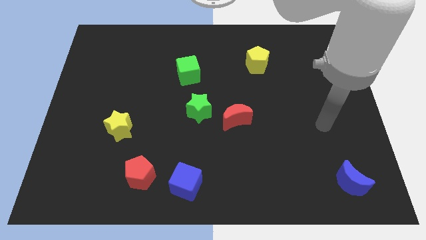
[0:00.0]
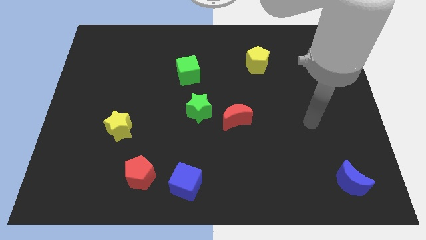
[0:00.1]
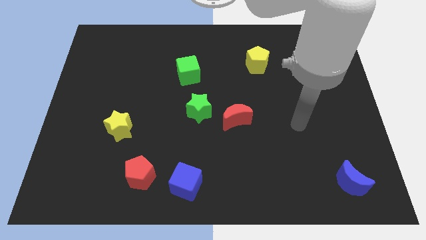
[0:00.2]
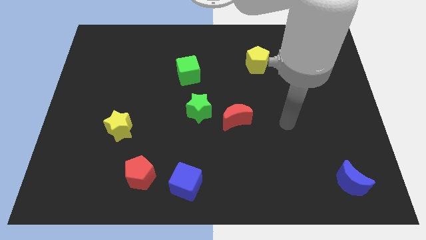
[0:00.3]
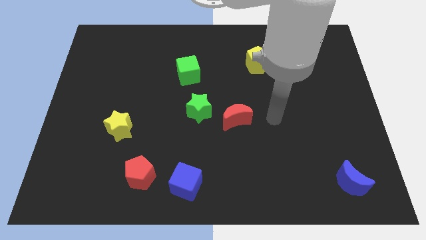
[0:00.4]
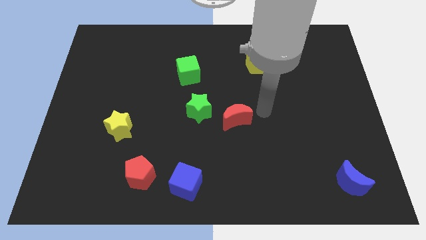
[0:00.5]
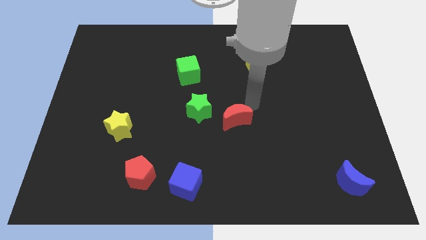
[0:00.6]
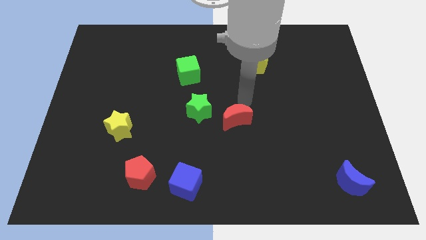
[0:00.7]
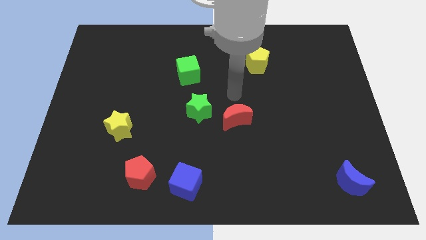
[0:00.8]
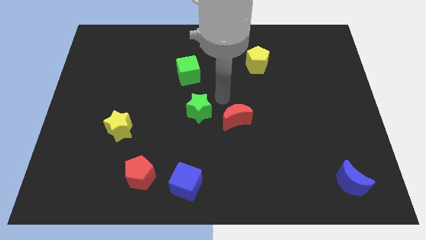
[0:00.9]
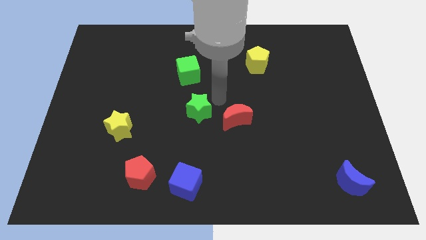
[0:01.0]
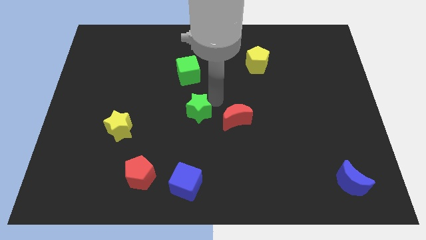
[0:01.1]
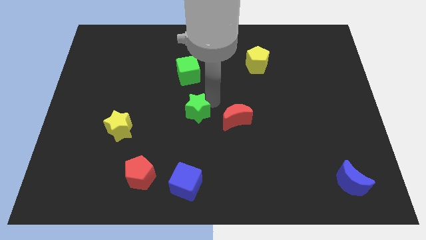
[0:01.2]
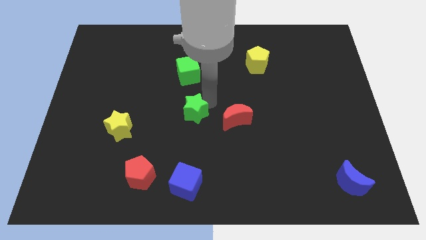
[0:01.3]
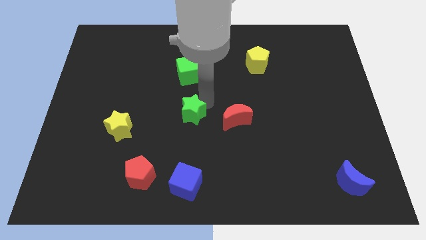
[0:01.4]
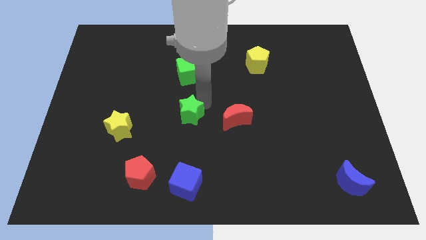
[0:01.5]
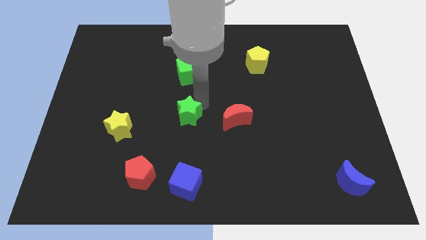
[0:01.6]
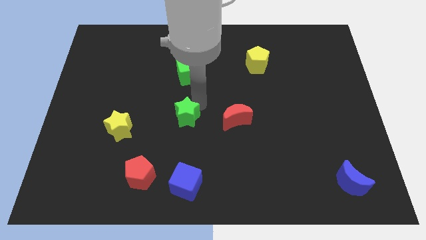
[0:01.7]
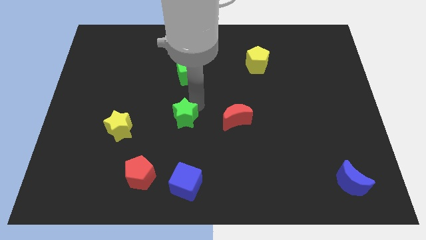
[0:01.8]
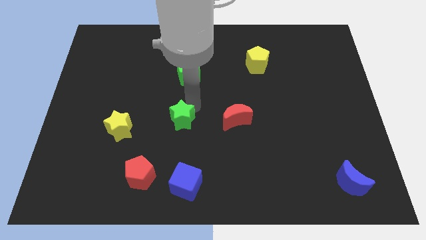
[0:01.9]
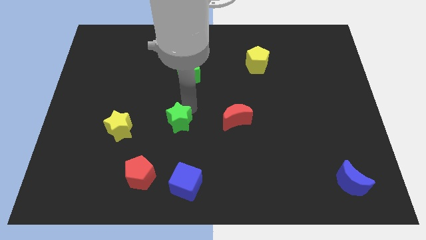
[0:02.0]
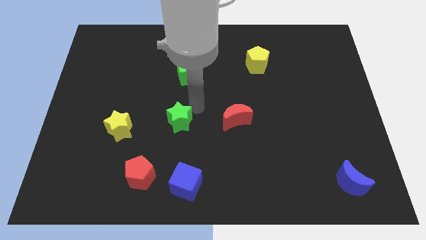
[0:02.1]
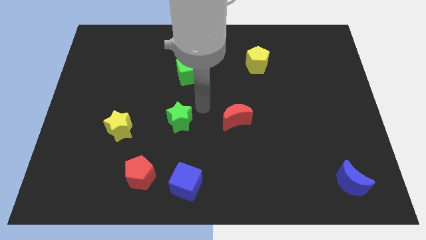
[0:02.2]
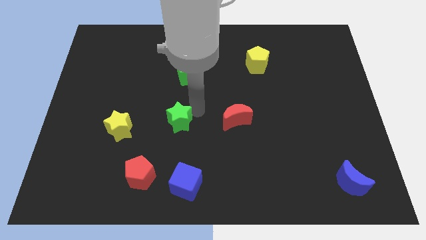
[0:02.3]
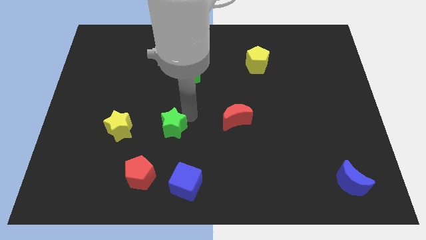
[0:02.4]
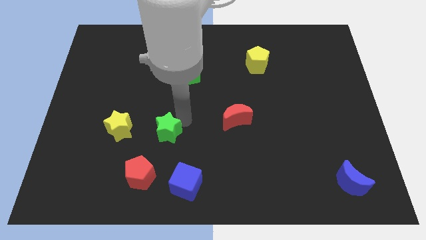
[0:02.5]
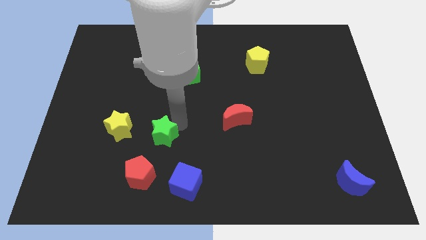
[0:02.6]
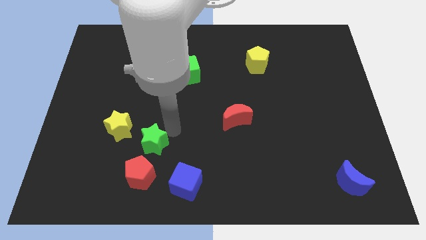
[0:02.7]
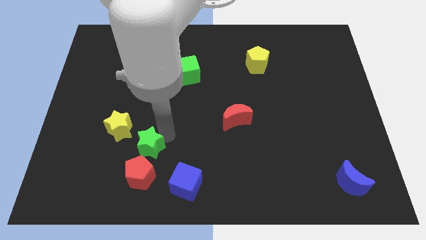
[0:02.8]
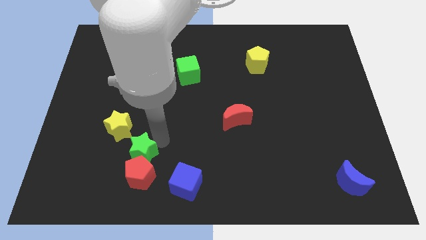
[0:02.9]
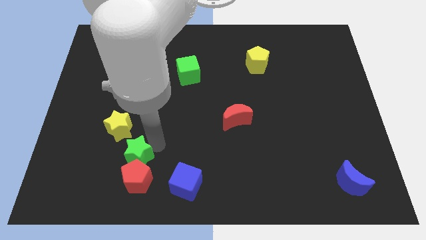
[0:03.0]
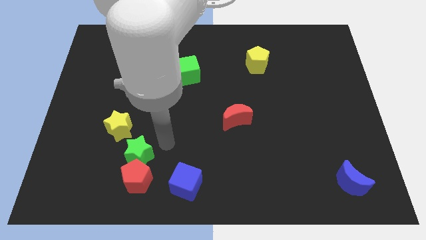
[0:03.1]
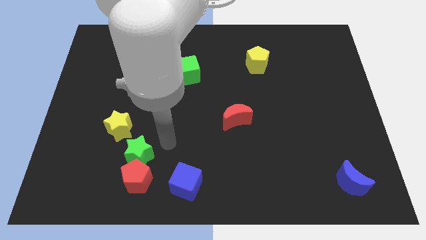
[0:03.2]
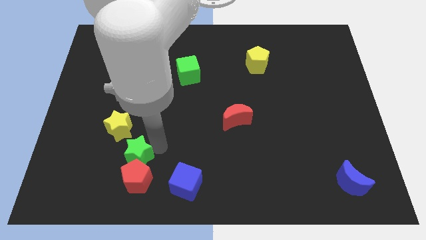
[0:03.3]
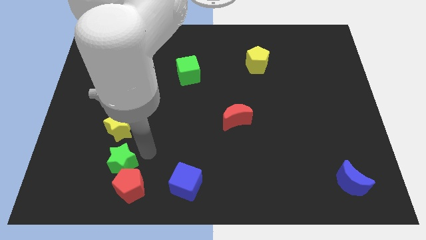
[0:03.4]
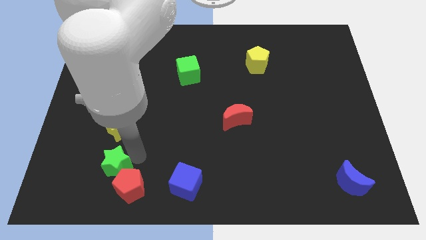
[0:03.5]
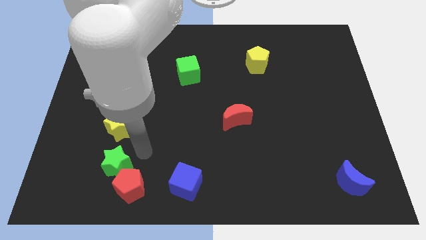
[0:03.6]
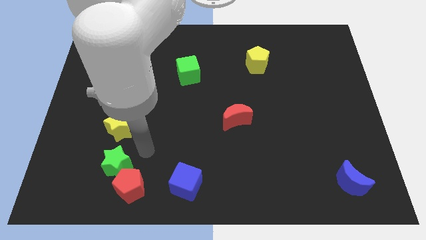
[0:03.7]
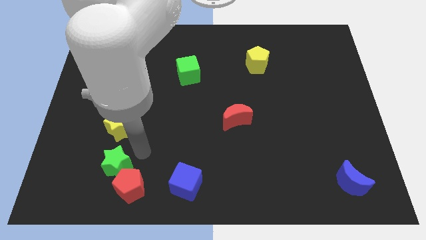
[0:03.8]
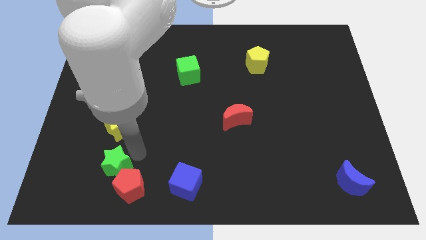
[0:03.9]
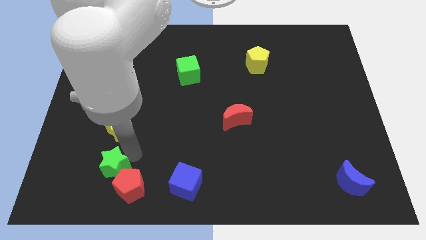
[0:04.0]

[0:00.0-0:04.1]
move the green star to the left of the red pentagon

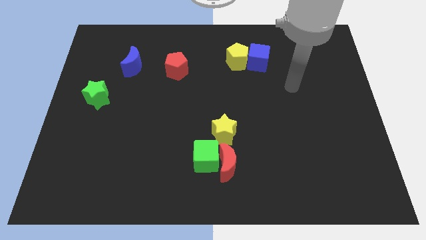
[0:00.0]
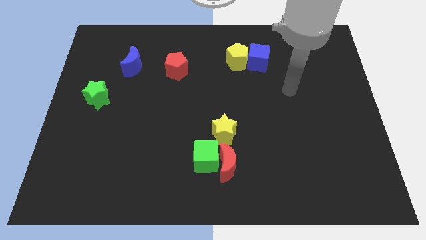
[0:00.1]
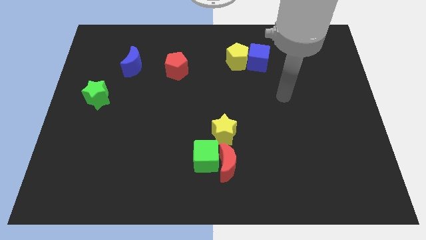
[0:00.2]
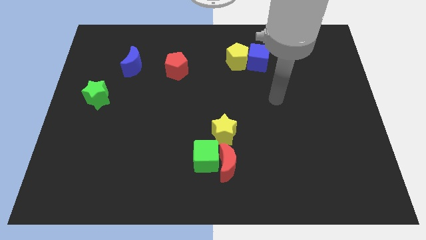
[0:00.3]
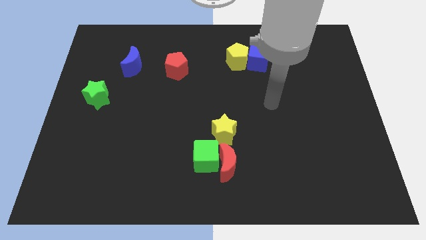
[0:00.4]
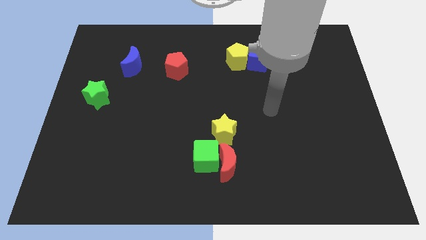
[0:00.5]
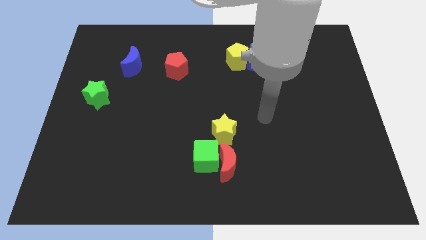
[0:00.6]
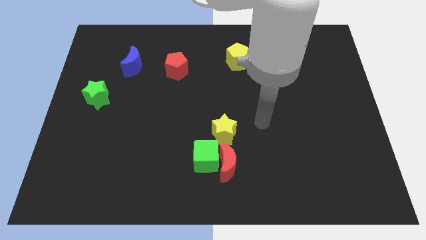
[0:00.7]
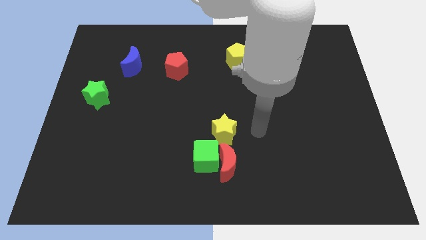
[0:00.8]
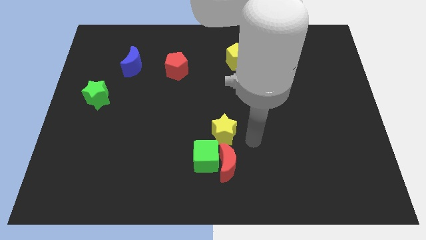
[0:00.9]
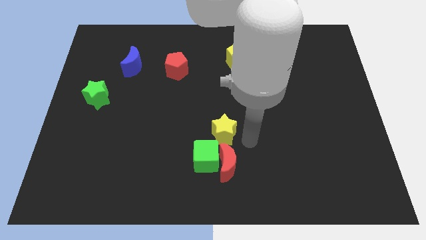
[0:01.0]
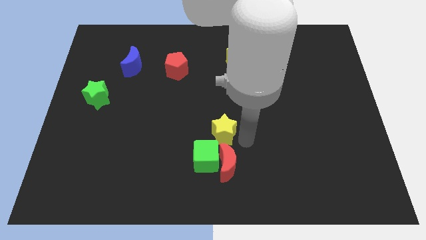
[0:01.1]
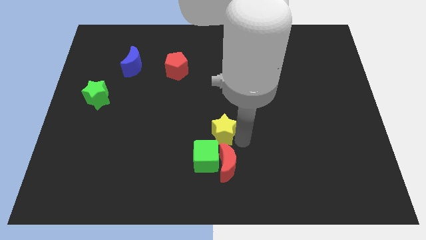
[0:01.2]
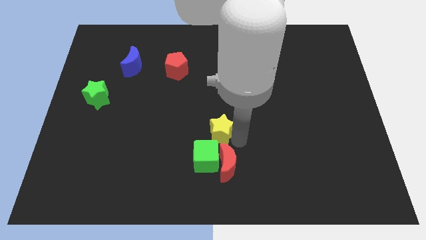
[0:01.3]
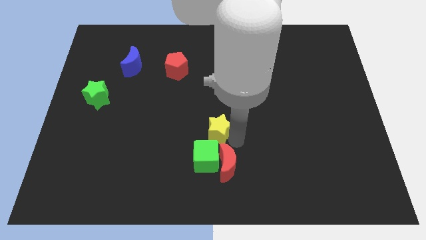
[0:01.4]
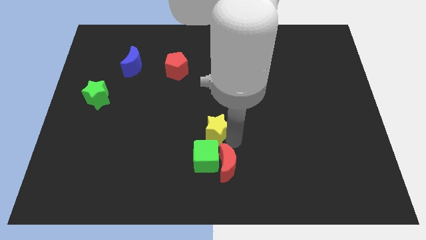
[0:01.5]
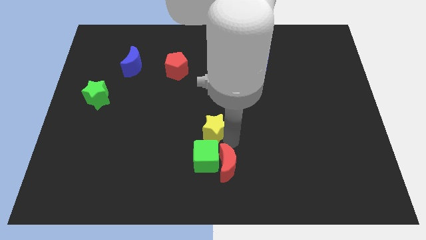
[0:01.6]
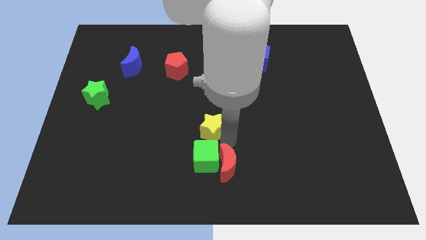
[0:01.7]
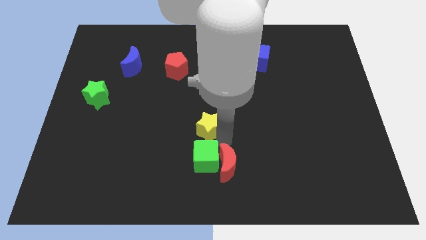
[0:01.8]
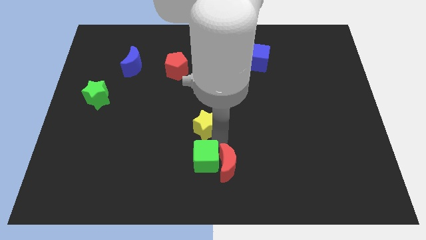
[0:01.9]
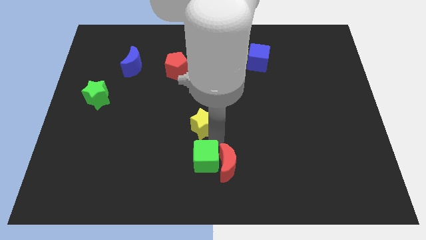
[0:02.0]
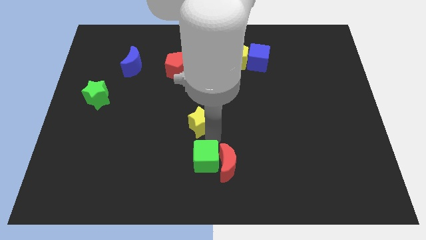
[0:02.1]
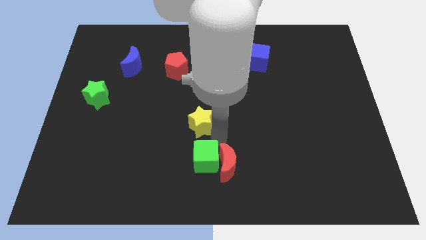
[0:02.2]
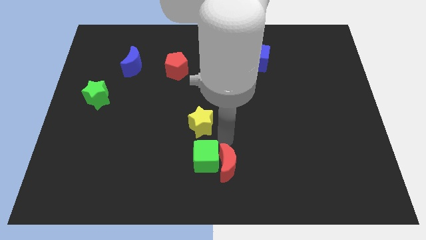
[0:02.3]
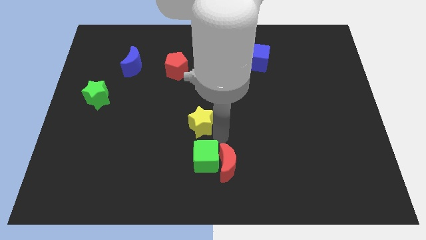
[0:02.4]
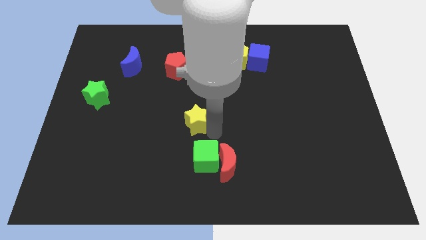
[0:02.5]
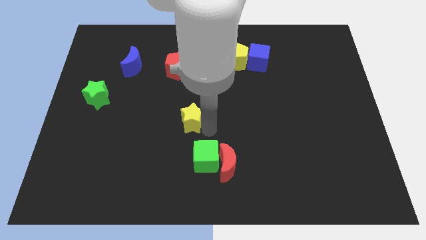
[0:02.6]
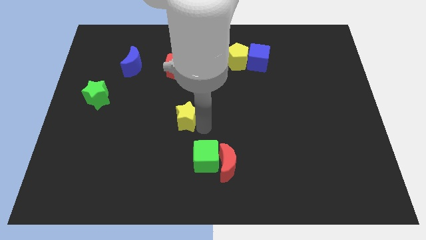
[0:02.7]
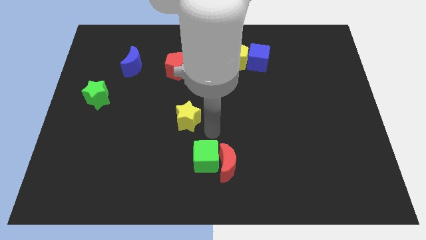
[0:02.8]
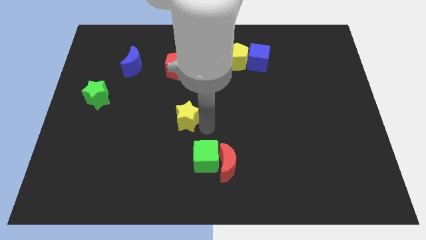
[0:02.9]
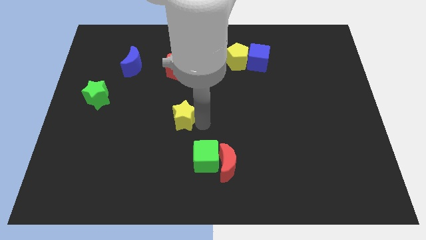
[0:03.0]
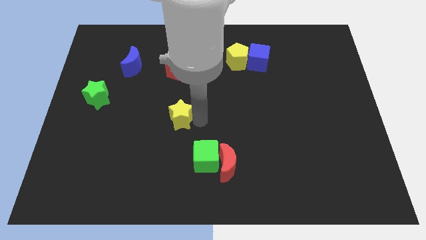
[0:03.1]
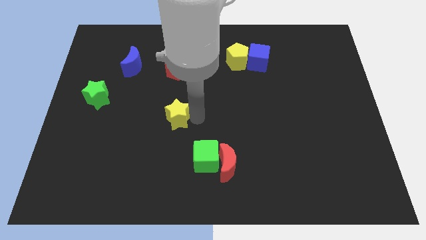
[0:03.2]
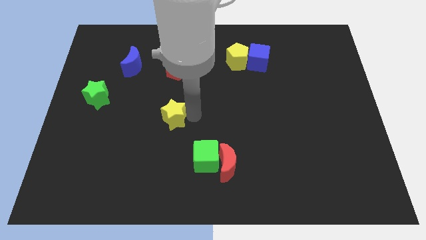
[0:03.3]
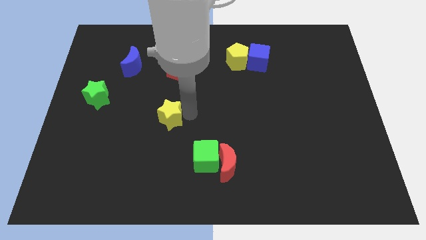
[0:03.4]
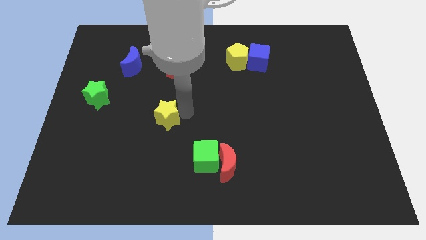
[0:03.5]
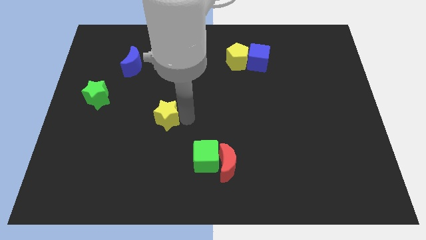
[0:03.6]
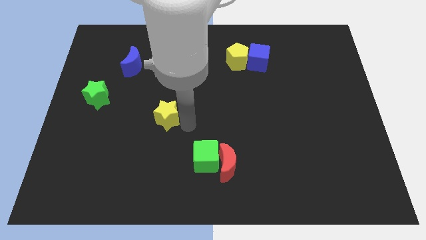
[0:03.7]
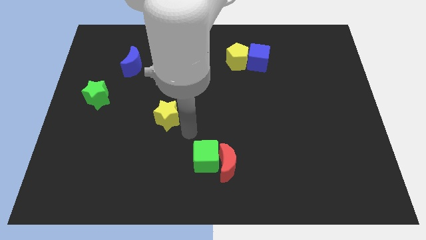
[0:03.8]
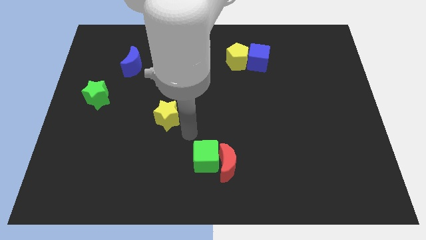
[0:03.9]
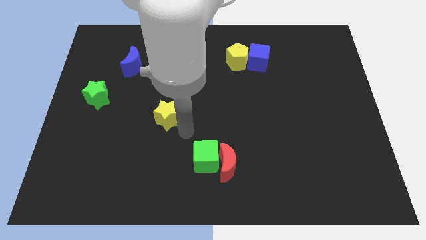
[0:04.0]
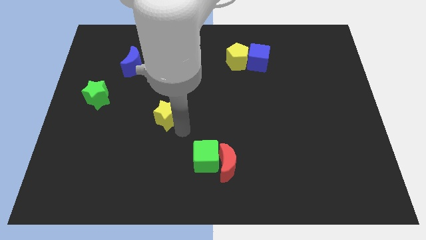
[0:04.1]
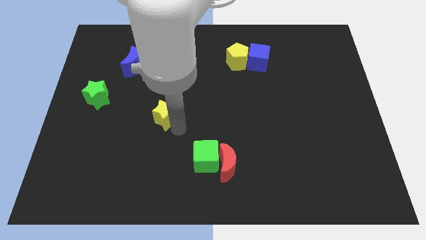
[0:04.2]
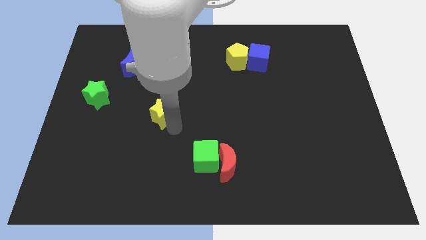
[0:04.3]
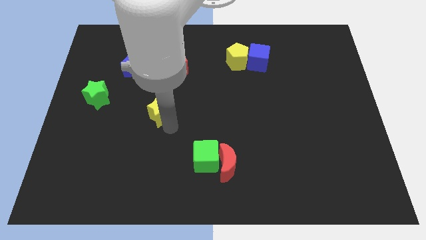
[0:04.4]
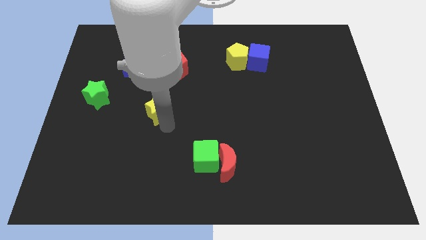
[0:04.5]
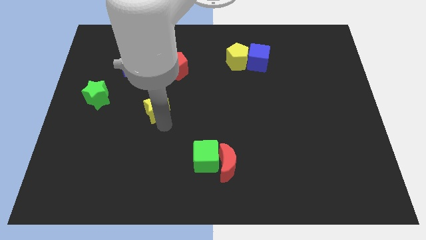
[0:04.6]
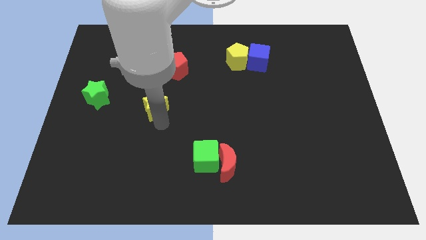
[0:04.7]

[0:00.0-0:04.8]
put the yellow star to the right of the green star
